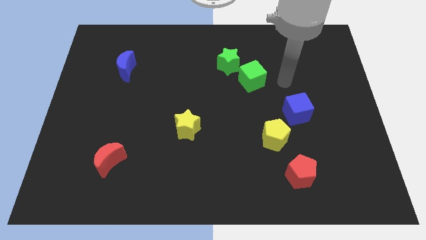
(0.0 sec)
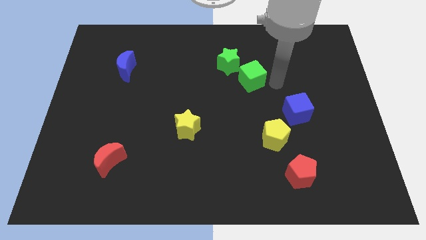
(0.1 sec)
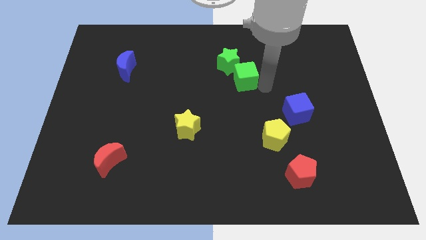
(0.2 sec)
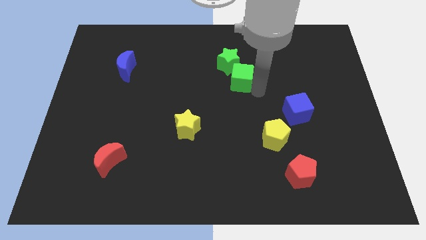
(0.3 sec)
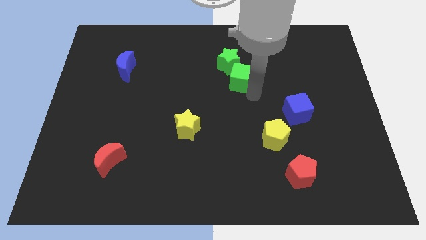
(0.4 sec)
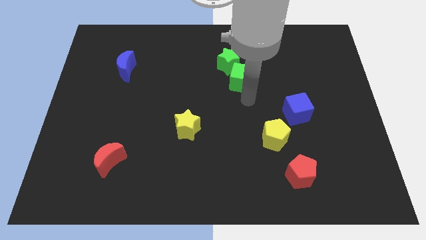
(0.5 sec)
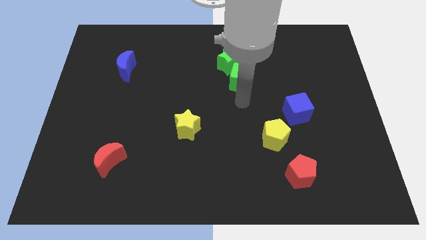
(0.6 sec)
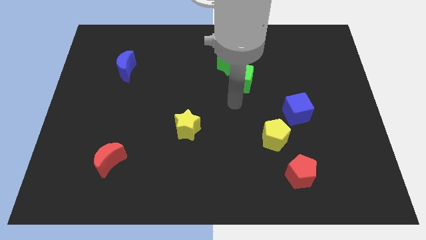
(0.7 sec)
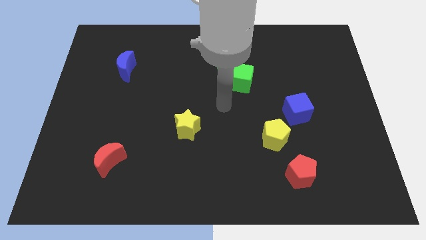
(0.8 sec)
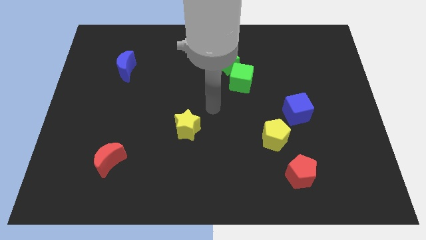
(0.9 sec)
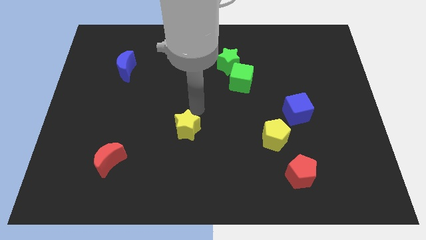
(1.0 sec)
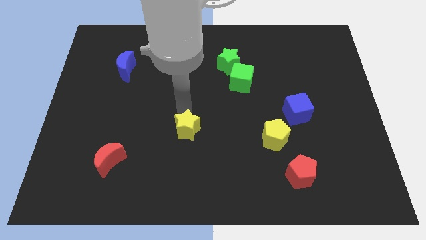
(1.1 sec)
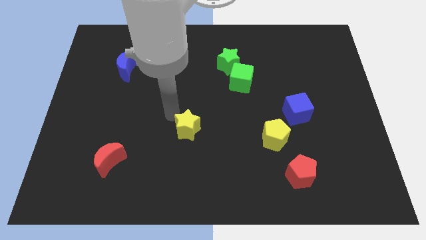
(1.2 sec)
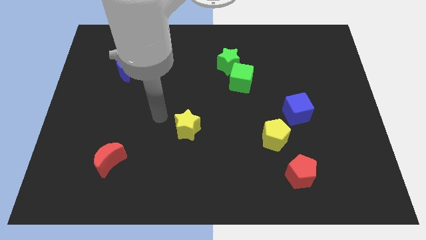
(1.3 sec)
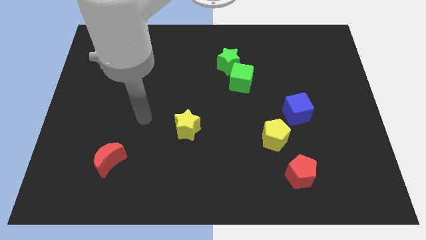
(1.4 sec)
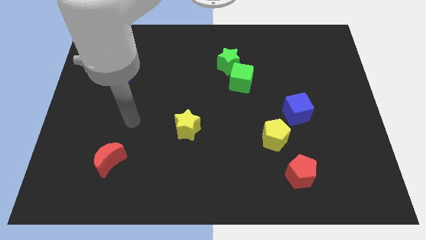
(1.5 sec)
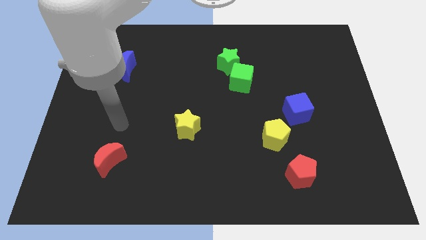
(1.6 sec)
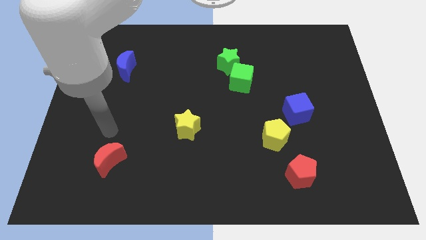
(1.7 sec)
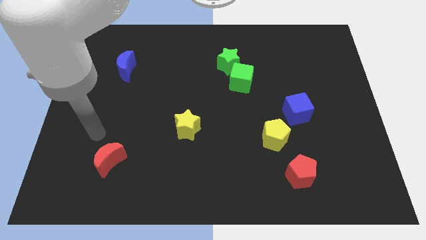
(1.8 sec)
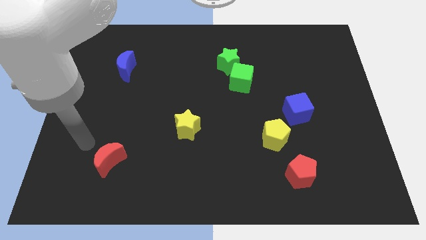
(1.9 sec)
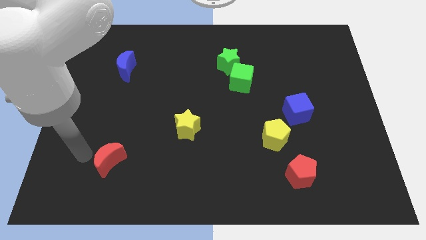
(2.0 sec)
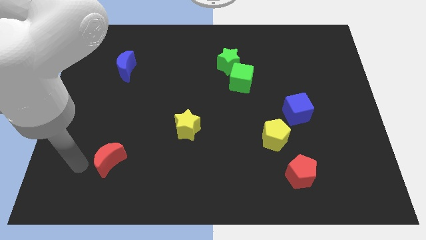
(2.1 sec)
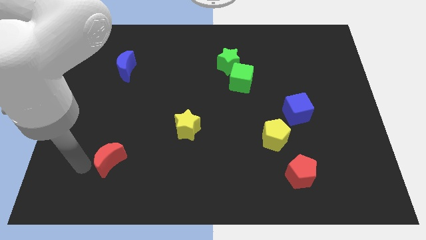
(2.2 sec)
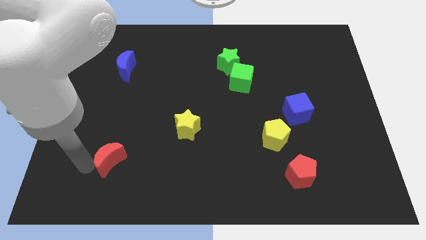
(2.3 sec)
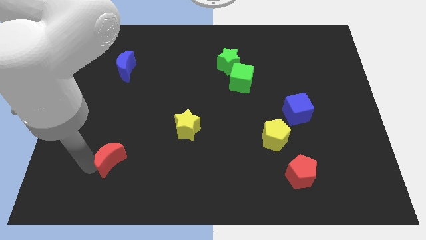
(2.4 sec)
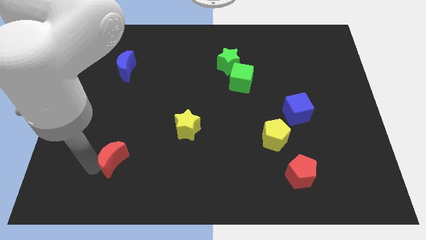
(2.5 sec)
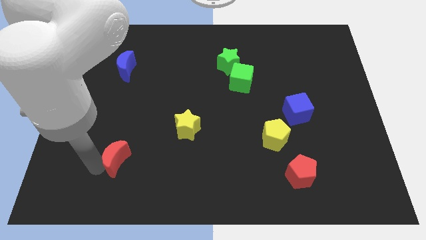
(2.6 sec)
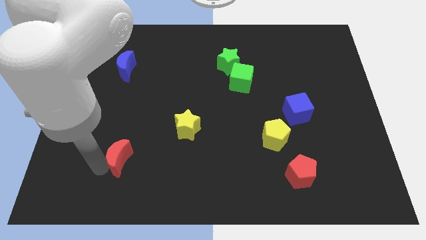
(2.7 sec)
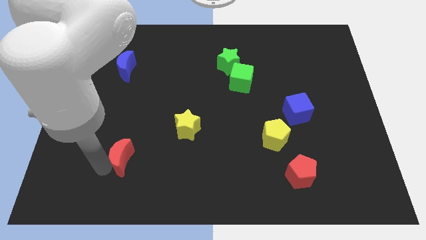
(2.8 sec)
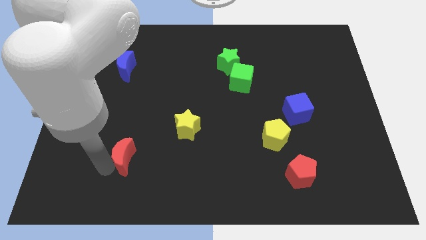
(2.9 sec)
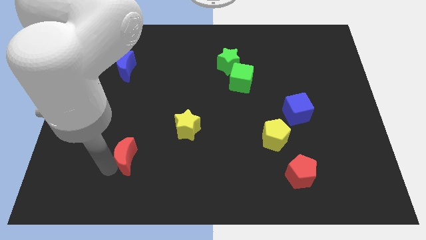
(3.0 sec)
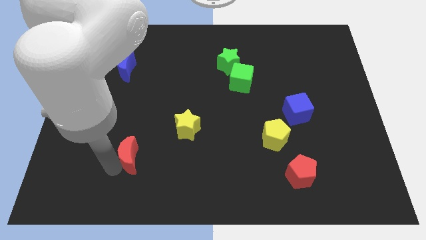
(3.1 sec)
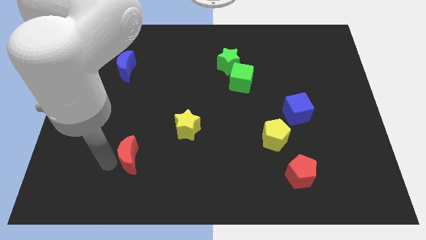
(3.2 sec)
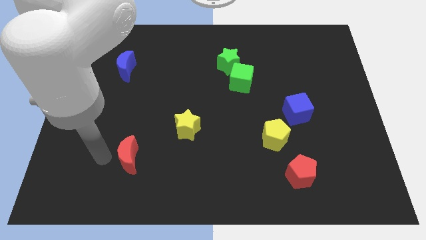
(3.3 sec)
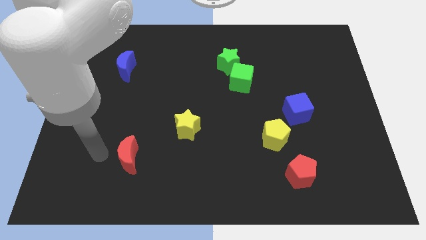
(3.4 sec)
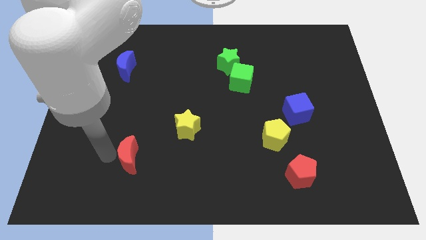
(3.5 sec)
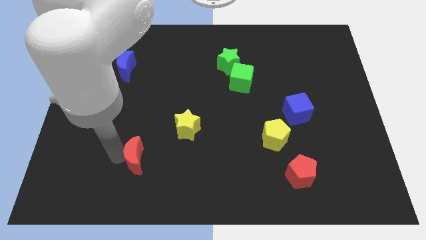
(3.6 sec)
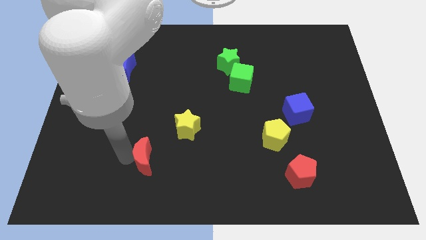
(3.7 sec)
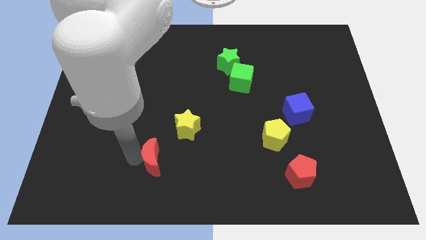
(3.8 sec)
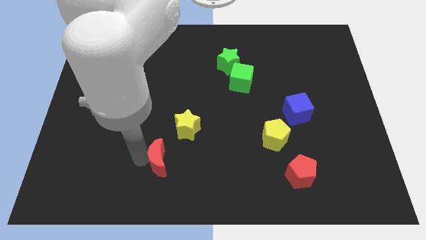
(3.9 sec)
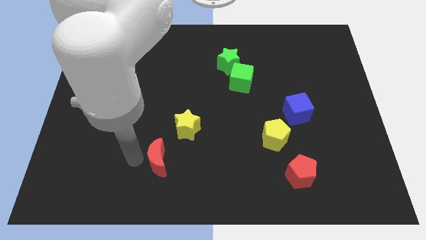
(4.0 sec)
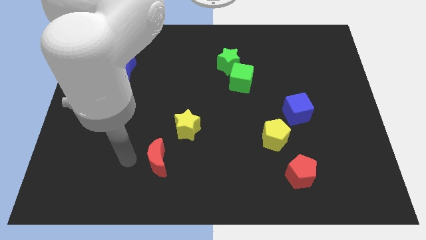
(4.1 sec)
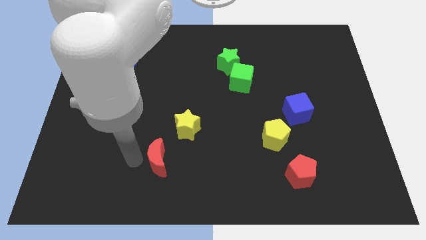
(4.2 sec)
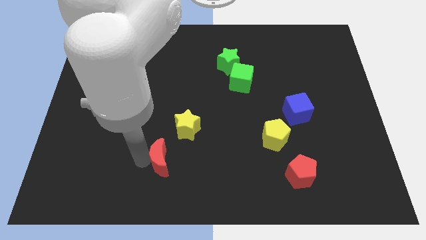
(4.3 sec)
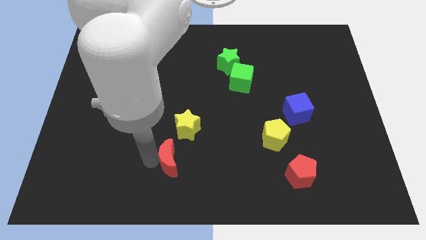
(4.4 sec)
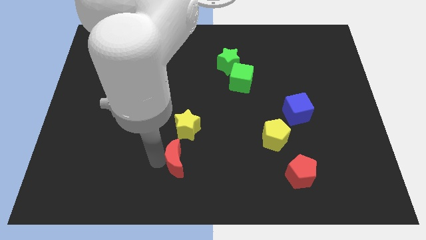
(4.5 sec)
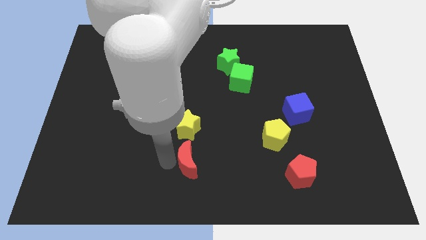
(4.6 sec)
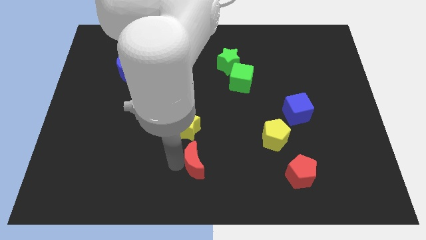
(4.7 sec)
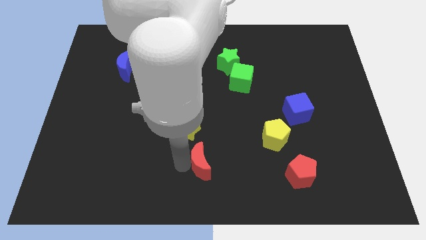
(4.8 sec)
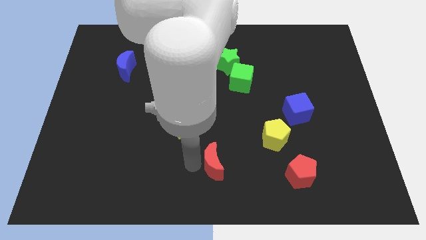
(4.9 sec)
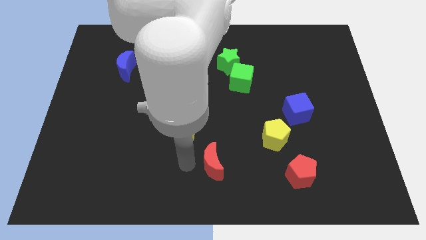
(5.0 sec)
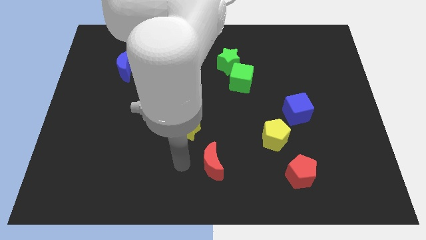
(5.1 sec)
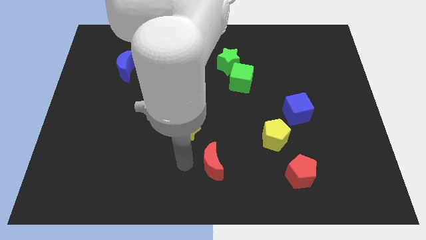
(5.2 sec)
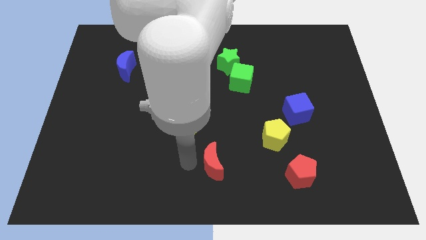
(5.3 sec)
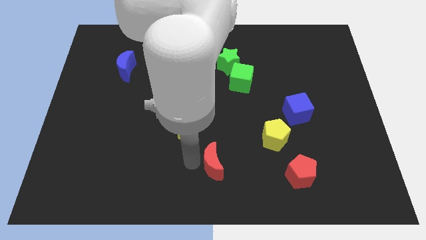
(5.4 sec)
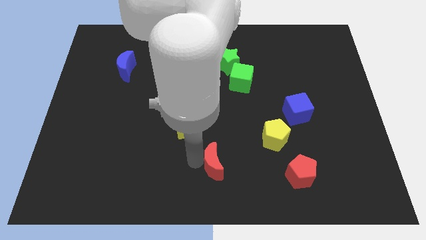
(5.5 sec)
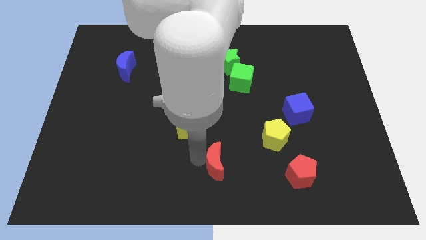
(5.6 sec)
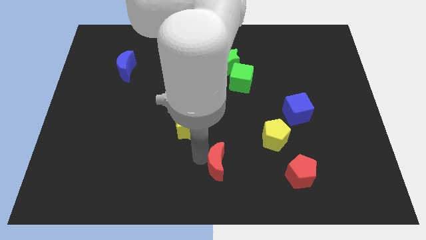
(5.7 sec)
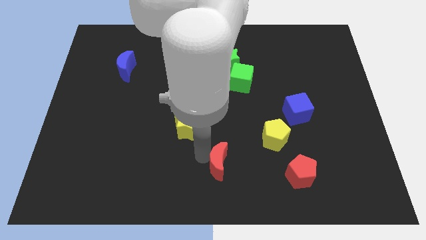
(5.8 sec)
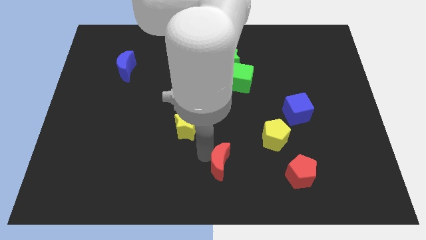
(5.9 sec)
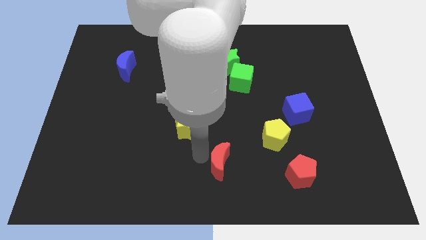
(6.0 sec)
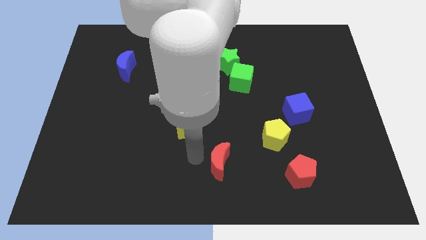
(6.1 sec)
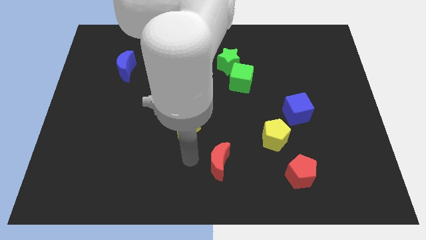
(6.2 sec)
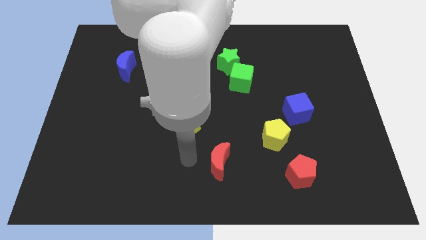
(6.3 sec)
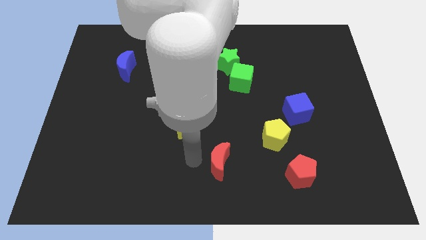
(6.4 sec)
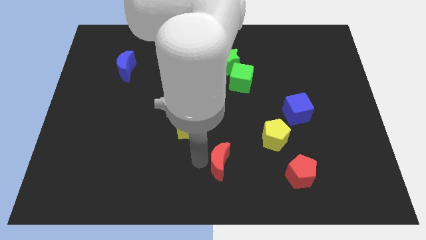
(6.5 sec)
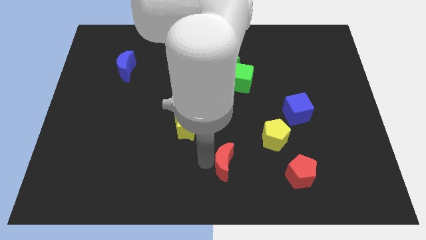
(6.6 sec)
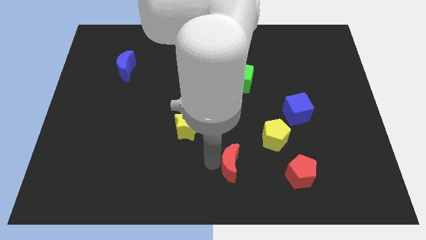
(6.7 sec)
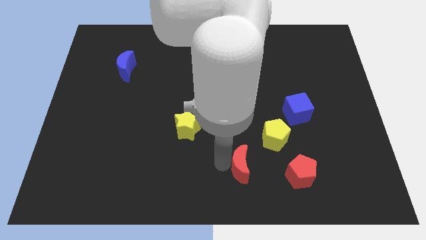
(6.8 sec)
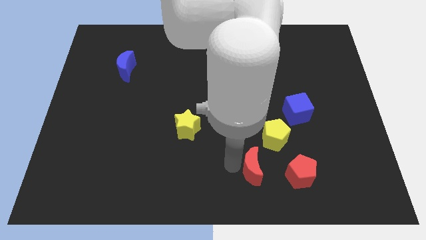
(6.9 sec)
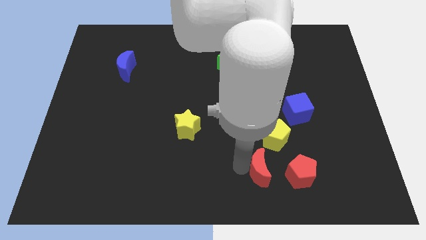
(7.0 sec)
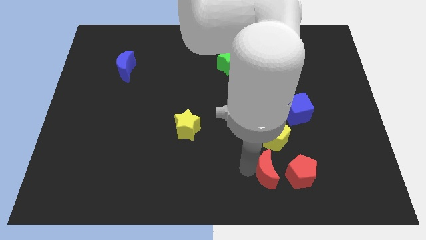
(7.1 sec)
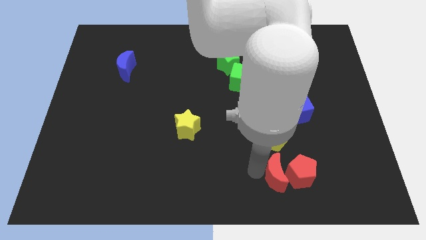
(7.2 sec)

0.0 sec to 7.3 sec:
put the red moon towards the red pentagon
